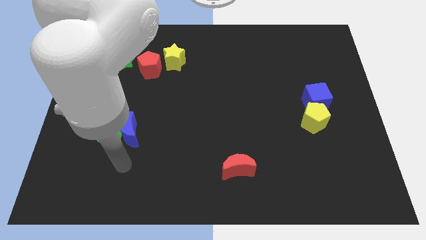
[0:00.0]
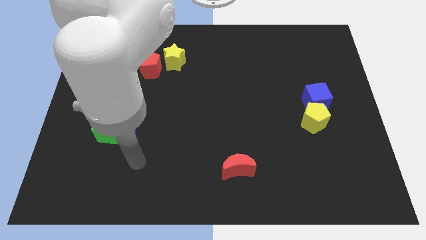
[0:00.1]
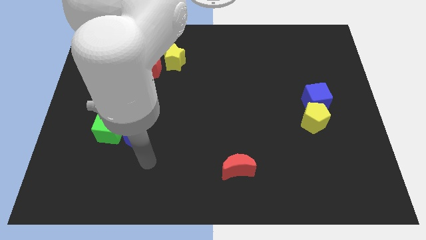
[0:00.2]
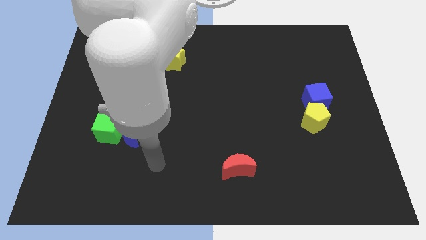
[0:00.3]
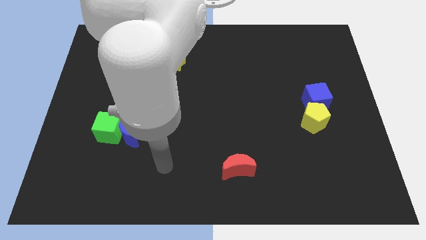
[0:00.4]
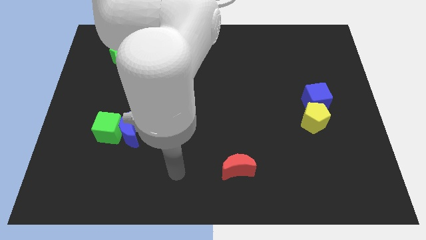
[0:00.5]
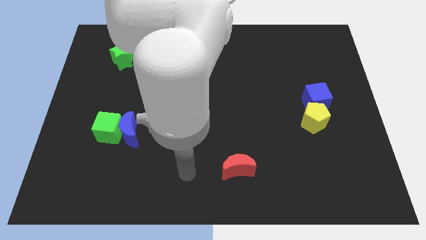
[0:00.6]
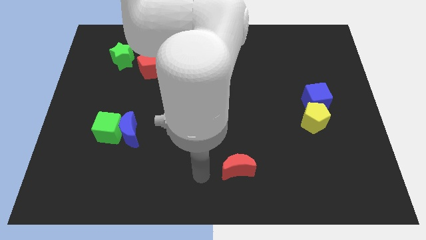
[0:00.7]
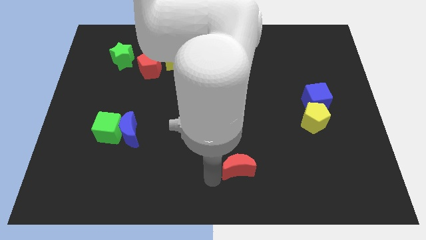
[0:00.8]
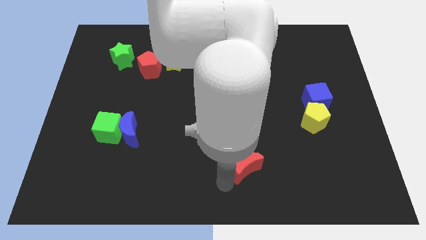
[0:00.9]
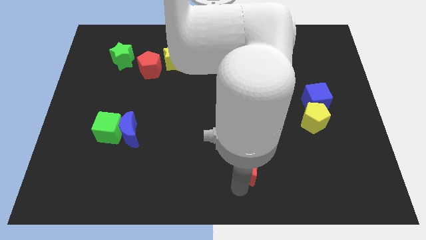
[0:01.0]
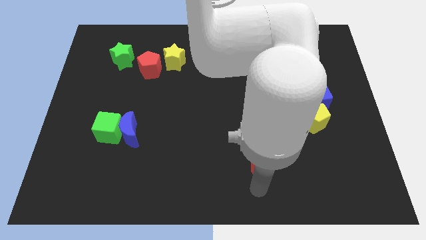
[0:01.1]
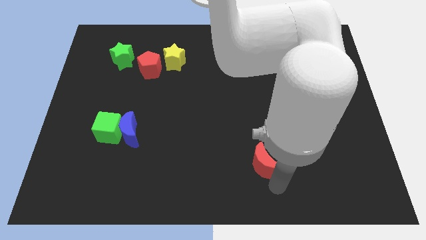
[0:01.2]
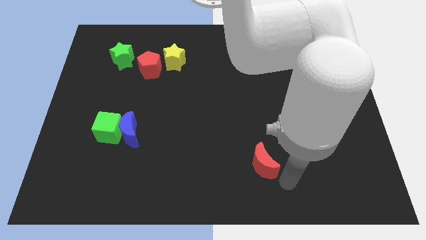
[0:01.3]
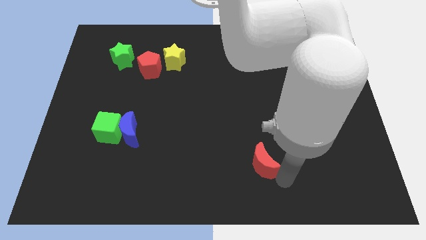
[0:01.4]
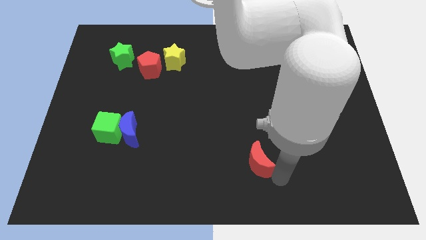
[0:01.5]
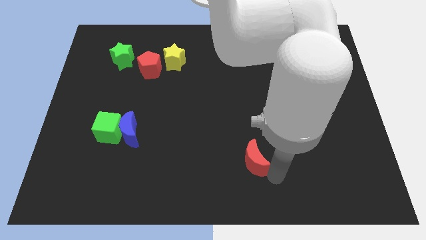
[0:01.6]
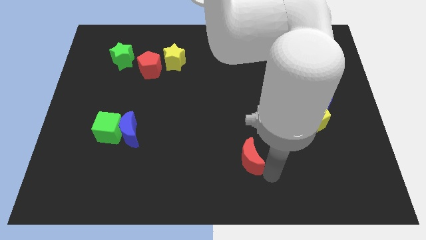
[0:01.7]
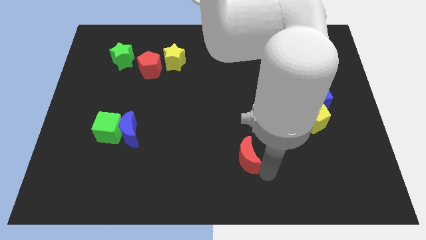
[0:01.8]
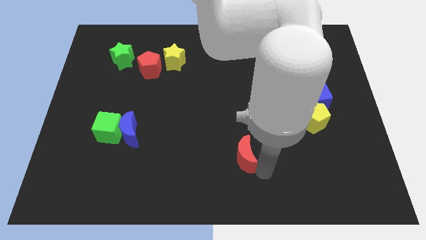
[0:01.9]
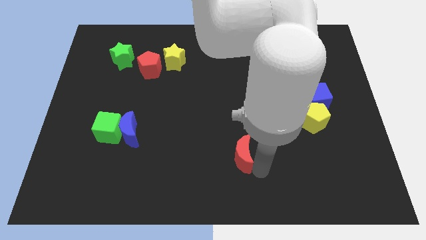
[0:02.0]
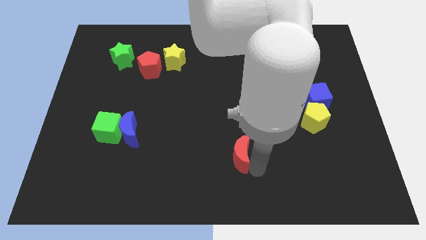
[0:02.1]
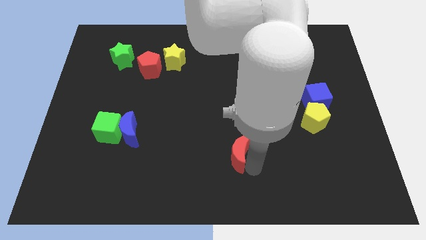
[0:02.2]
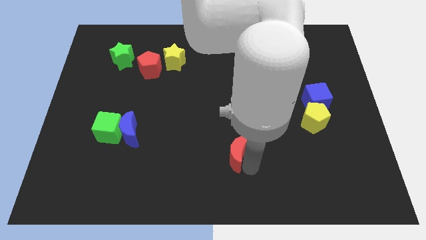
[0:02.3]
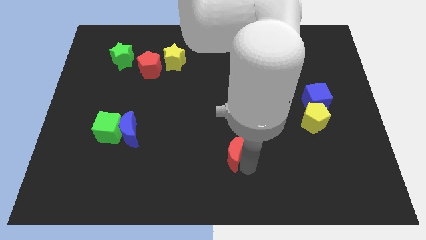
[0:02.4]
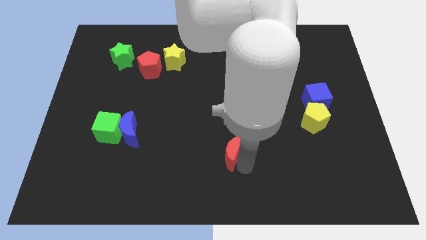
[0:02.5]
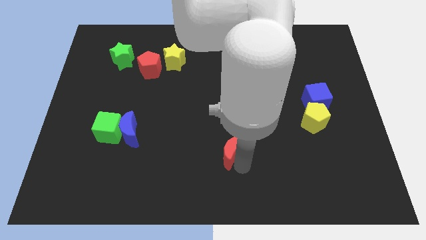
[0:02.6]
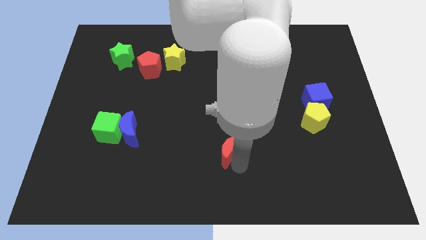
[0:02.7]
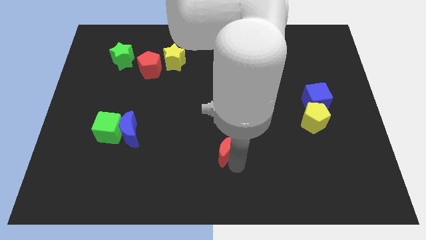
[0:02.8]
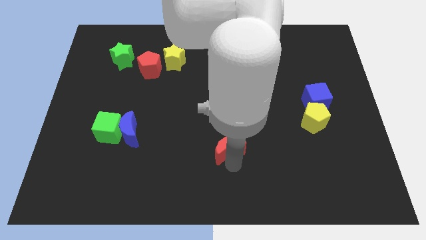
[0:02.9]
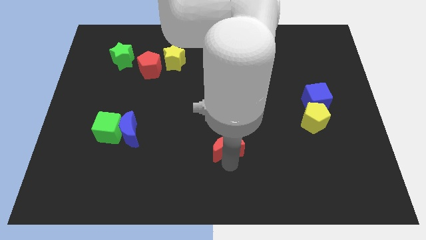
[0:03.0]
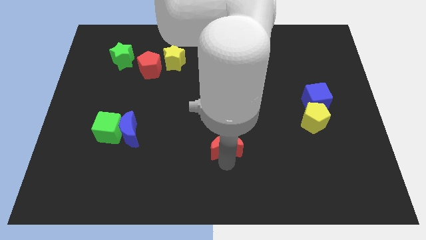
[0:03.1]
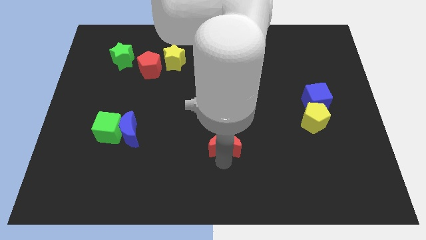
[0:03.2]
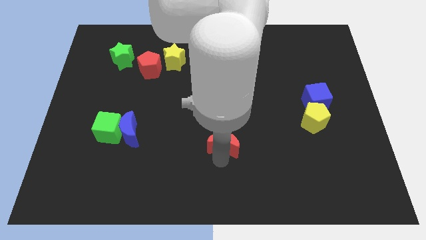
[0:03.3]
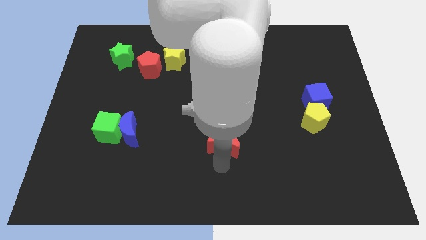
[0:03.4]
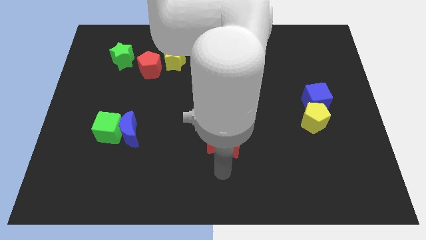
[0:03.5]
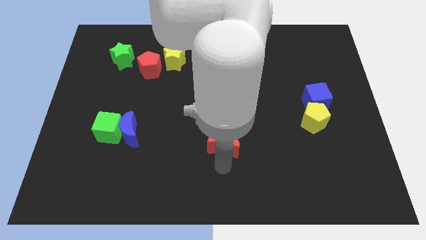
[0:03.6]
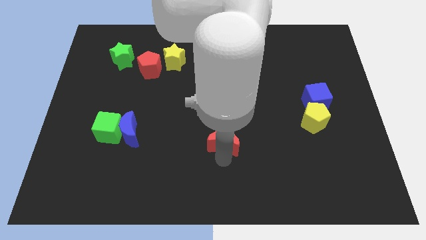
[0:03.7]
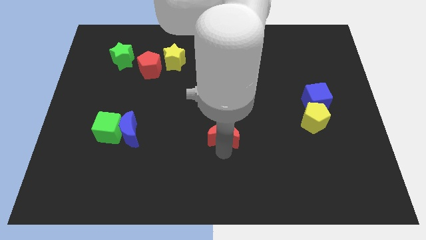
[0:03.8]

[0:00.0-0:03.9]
slightly push the red moon up

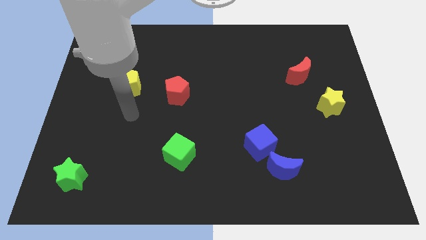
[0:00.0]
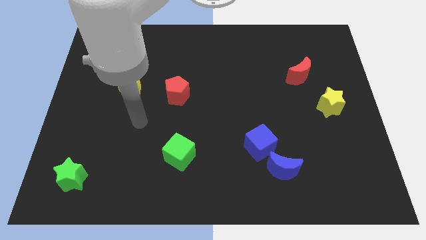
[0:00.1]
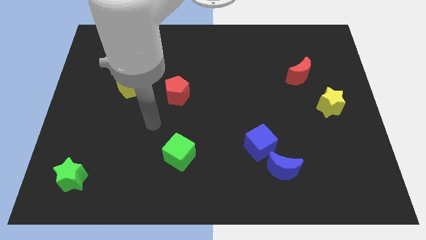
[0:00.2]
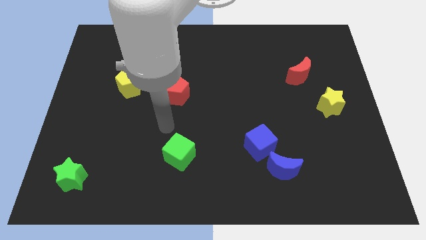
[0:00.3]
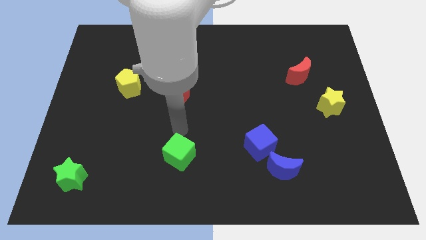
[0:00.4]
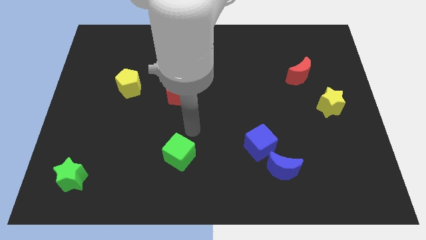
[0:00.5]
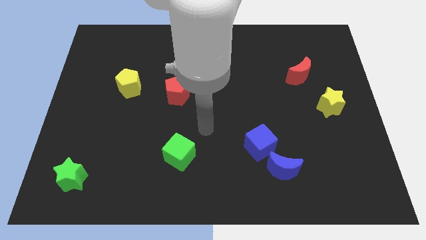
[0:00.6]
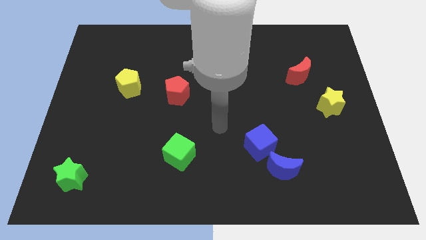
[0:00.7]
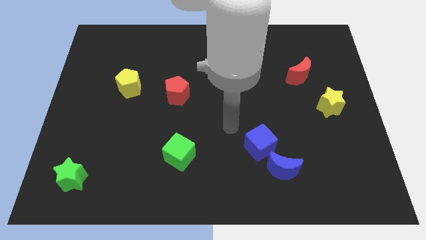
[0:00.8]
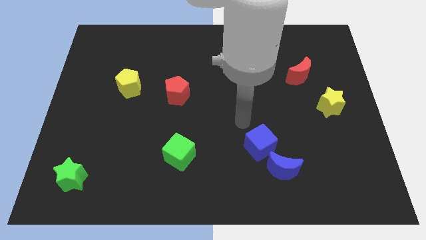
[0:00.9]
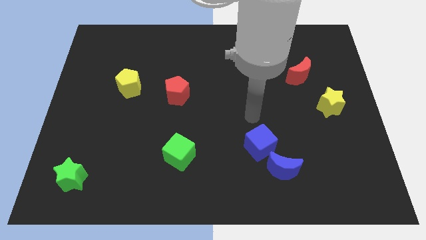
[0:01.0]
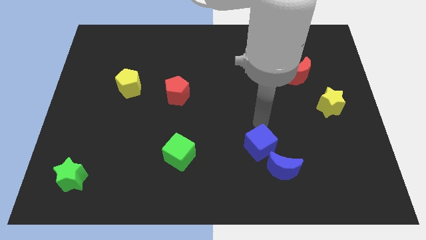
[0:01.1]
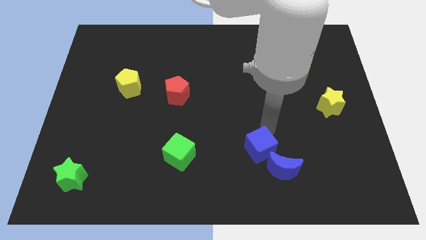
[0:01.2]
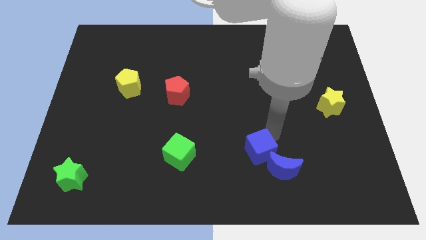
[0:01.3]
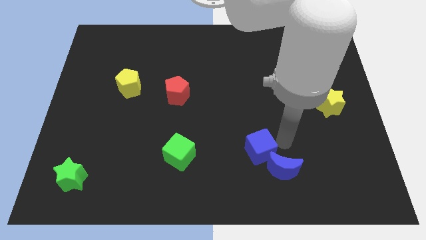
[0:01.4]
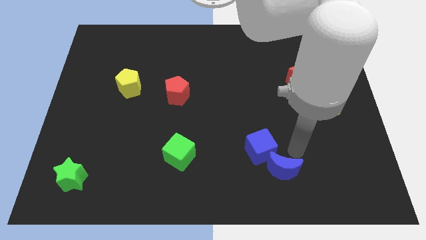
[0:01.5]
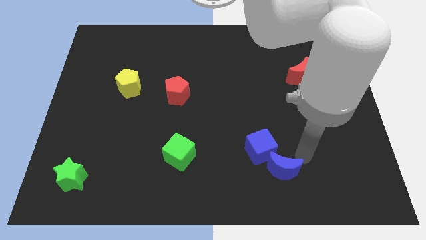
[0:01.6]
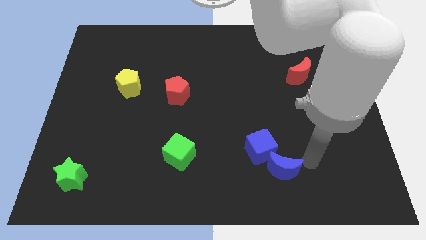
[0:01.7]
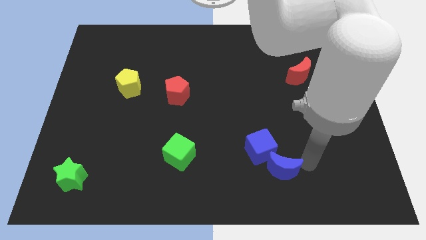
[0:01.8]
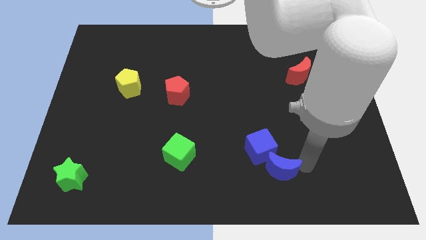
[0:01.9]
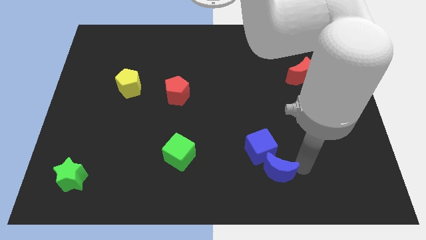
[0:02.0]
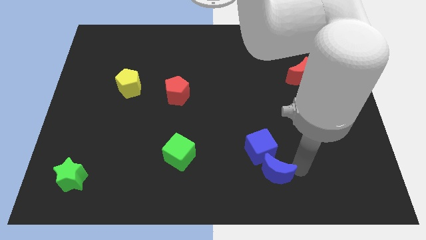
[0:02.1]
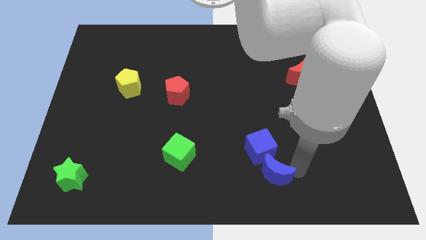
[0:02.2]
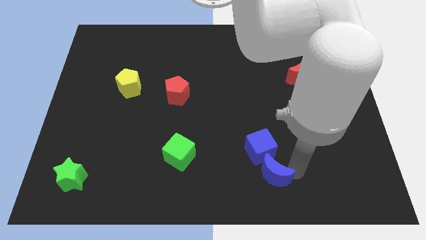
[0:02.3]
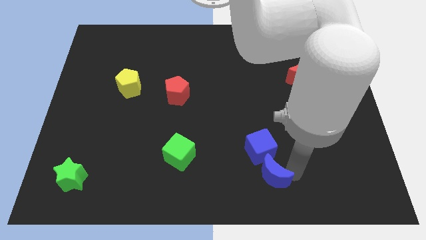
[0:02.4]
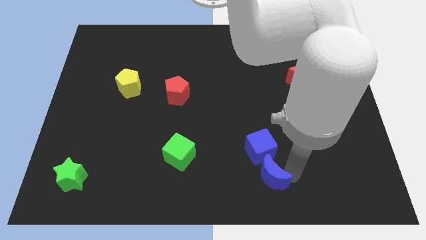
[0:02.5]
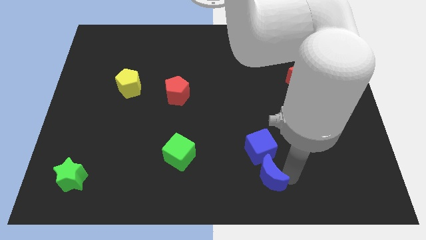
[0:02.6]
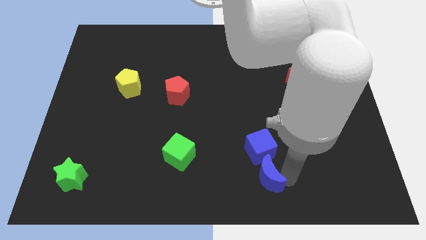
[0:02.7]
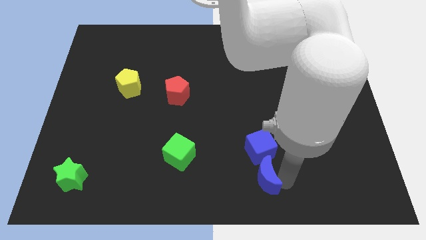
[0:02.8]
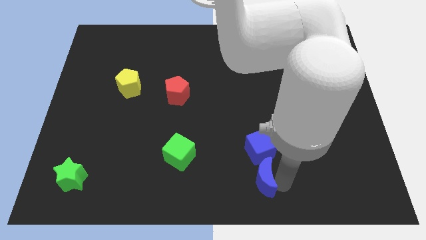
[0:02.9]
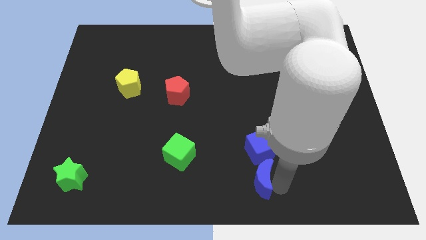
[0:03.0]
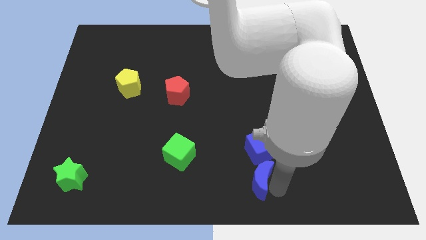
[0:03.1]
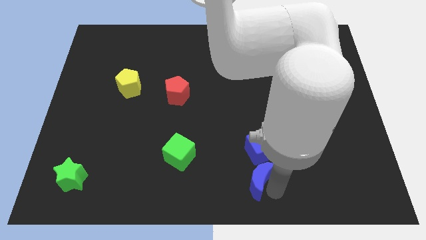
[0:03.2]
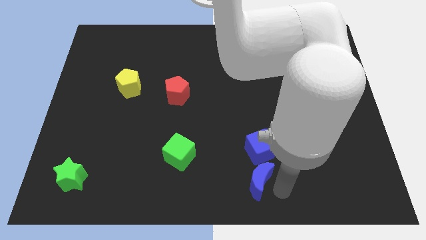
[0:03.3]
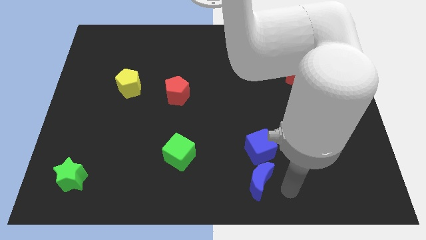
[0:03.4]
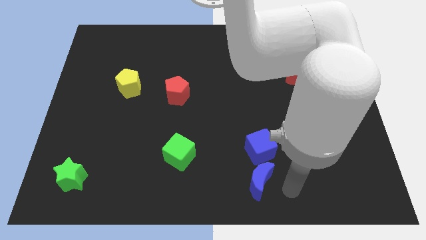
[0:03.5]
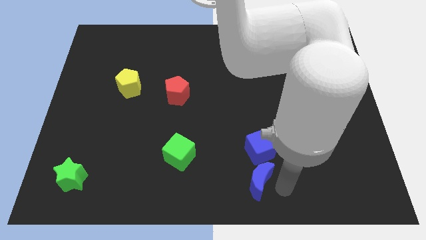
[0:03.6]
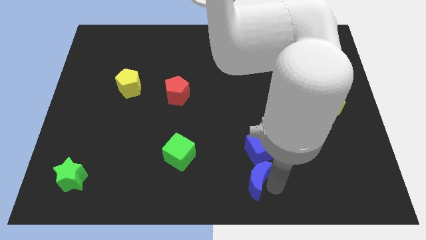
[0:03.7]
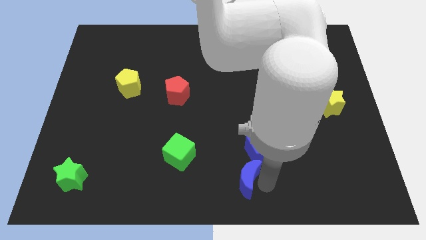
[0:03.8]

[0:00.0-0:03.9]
slightly slide the blue moon to the left

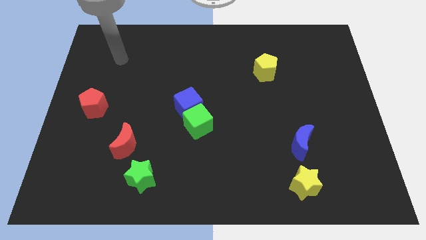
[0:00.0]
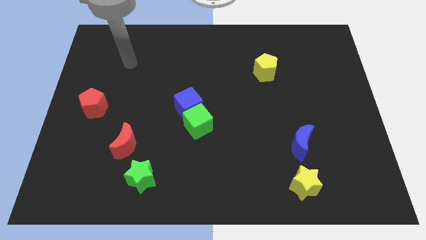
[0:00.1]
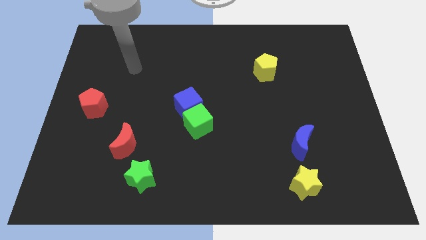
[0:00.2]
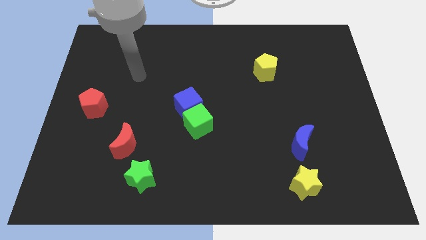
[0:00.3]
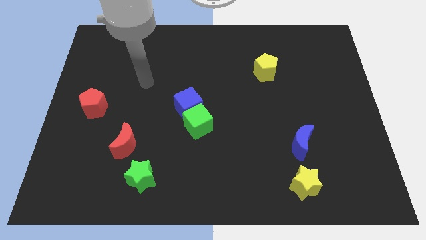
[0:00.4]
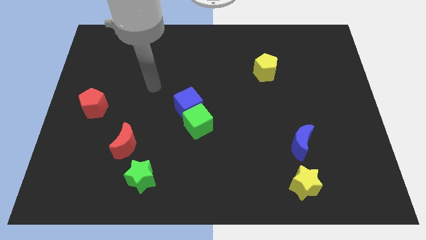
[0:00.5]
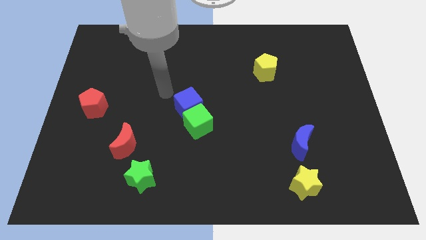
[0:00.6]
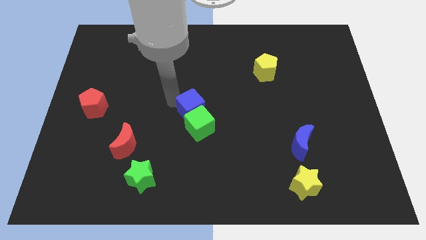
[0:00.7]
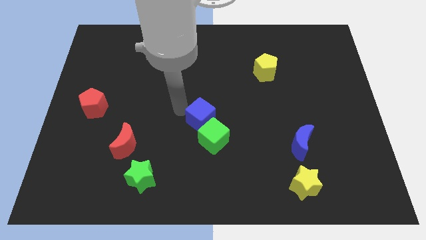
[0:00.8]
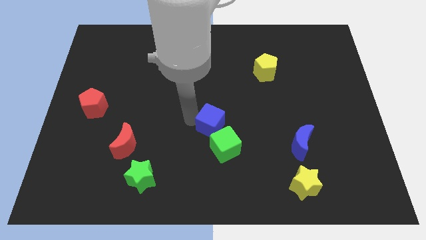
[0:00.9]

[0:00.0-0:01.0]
slightly push the green cube diagonally down and right
